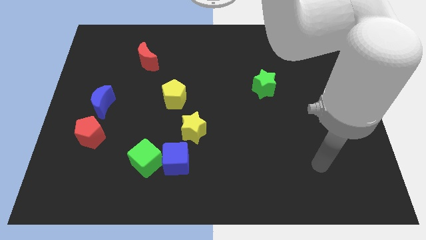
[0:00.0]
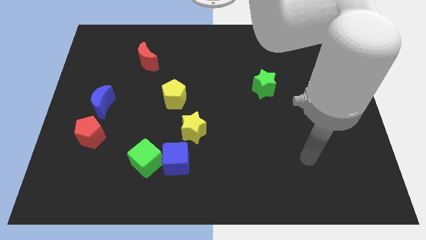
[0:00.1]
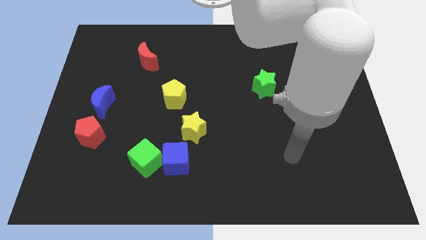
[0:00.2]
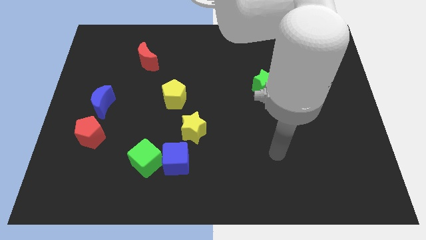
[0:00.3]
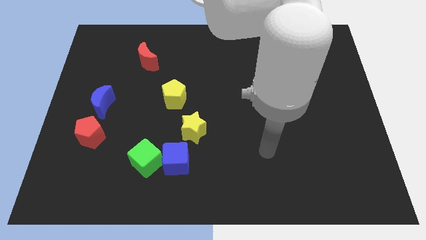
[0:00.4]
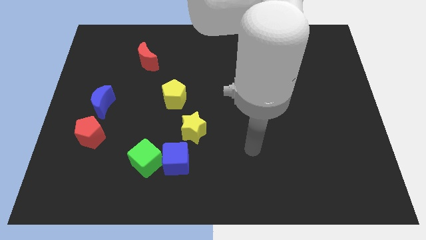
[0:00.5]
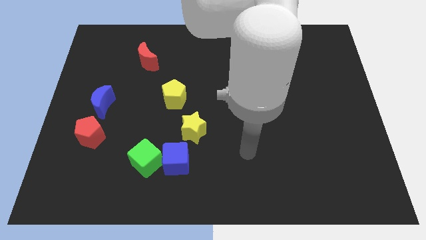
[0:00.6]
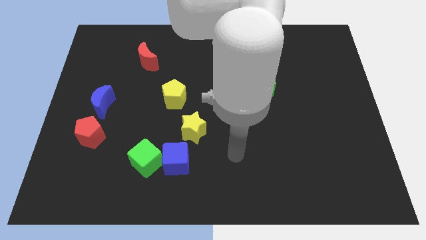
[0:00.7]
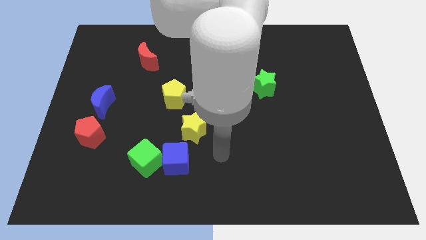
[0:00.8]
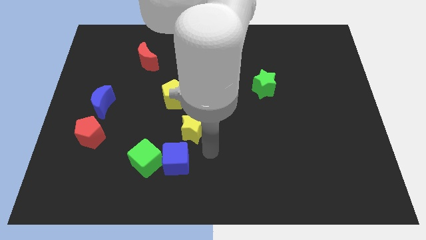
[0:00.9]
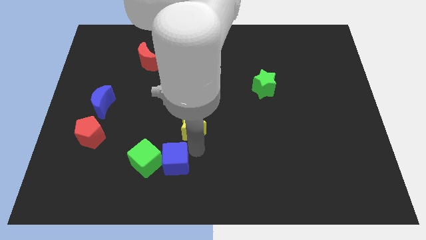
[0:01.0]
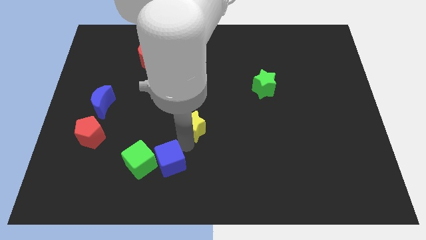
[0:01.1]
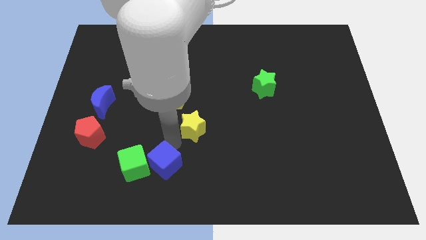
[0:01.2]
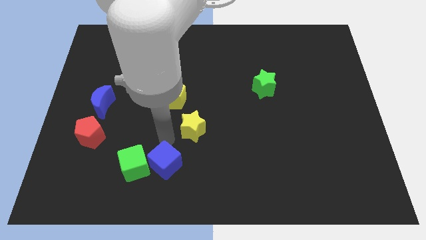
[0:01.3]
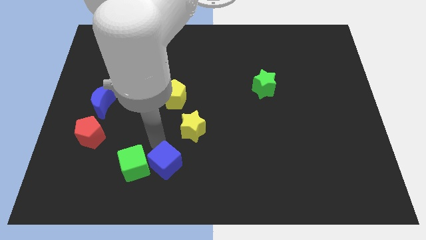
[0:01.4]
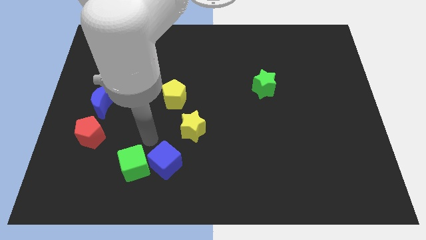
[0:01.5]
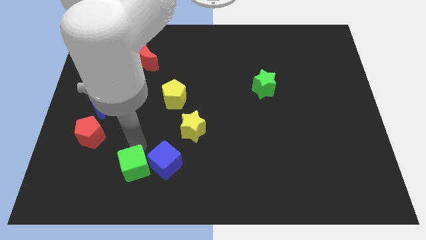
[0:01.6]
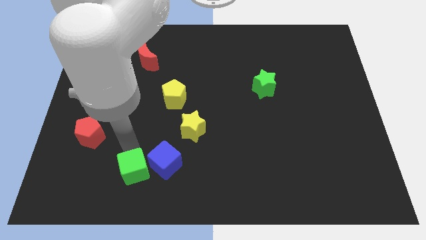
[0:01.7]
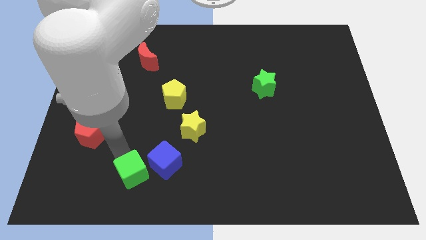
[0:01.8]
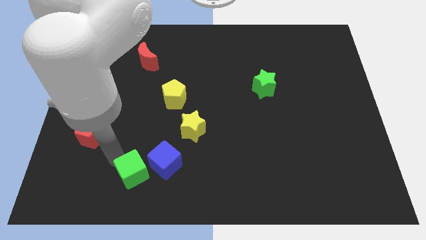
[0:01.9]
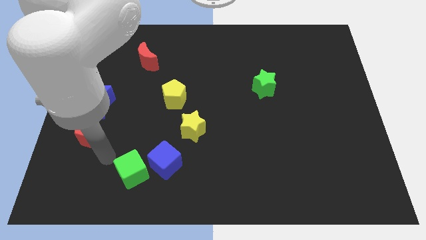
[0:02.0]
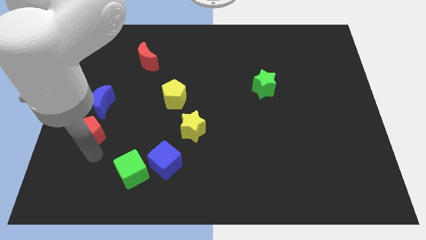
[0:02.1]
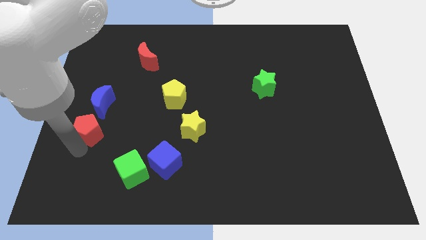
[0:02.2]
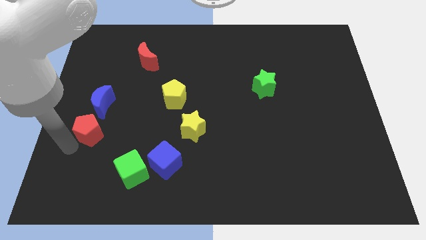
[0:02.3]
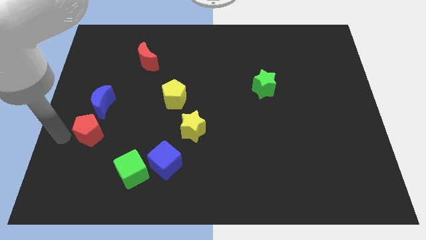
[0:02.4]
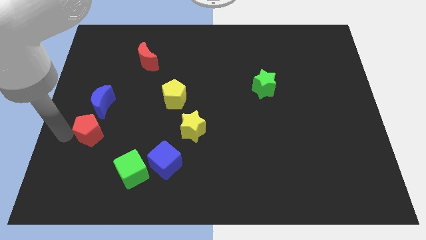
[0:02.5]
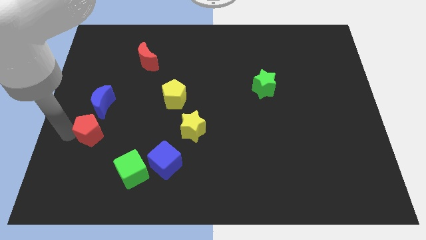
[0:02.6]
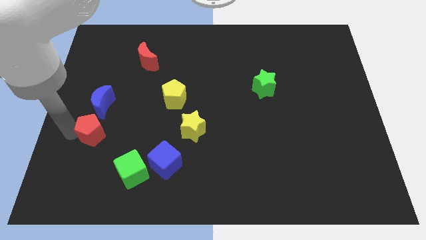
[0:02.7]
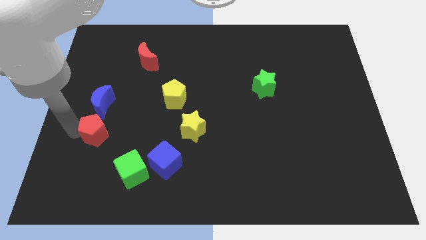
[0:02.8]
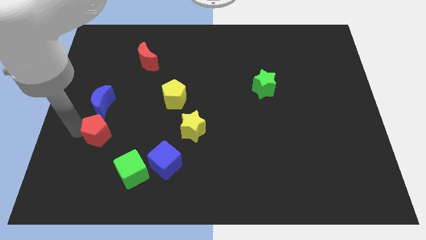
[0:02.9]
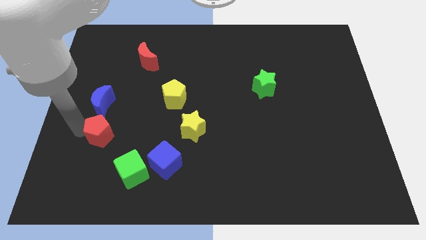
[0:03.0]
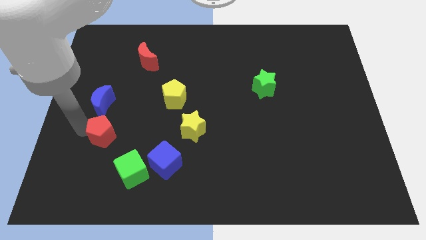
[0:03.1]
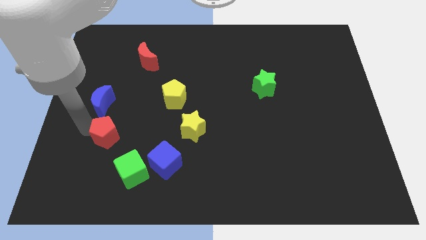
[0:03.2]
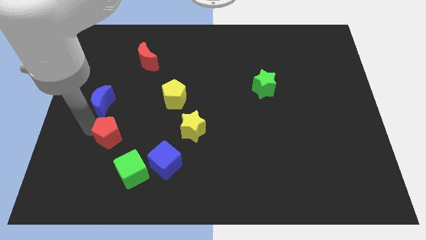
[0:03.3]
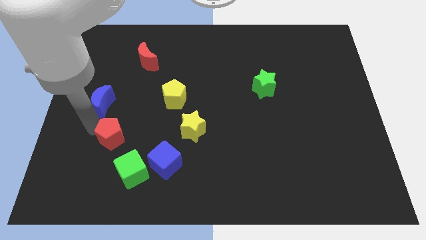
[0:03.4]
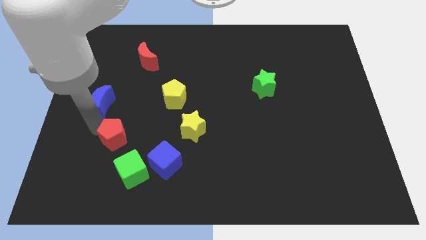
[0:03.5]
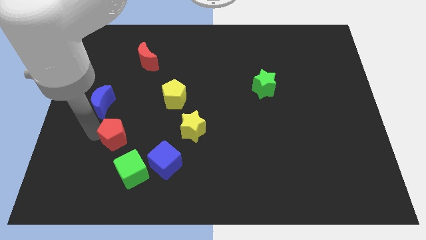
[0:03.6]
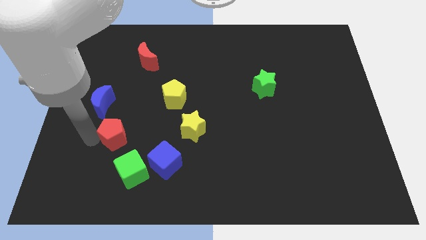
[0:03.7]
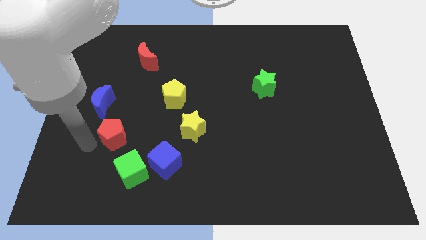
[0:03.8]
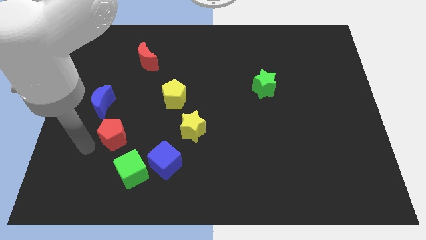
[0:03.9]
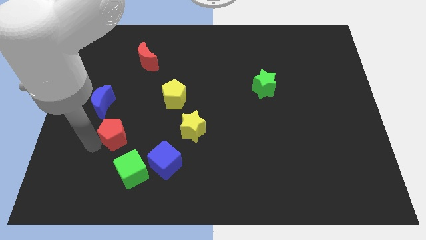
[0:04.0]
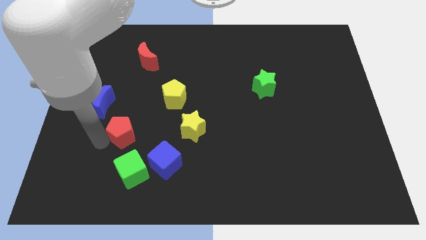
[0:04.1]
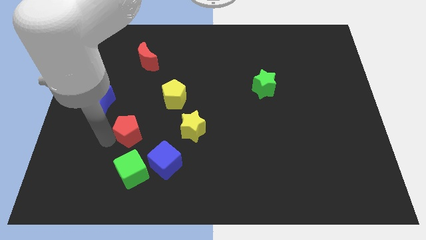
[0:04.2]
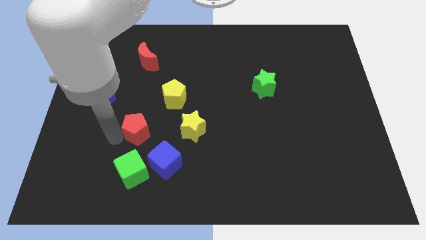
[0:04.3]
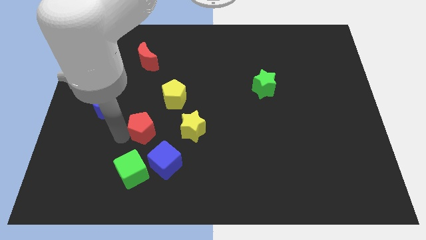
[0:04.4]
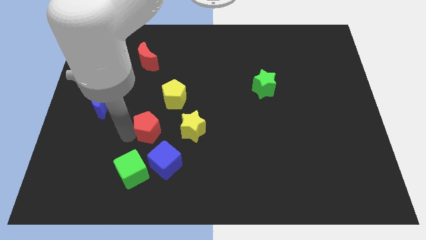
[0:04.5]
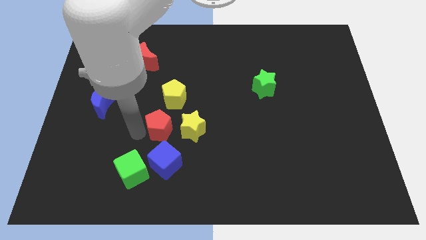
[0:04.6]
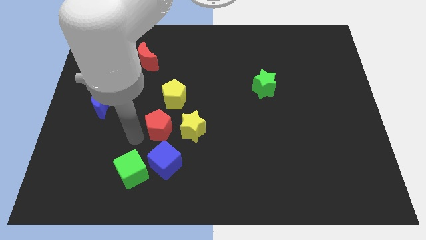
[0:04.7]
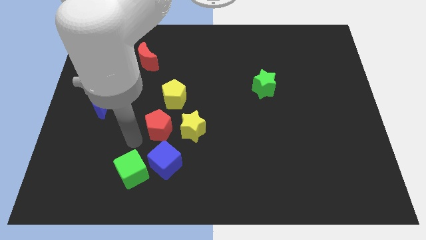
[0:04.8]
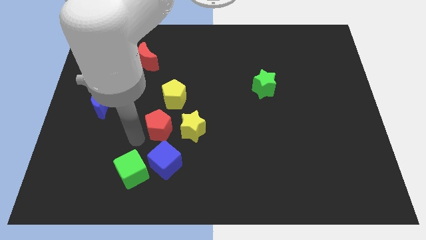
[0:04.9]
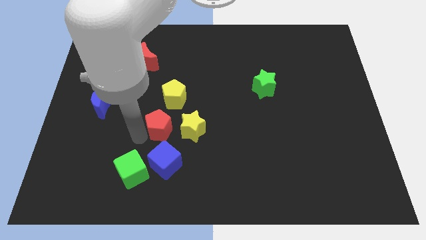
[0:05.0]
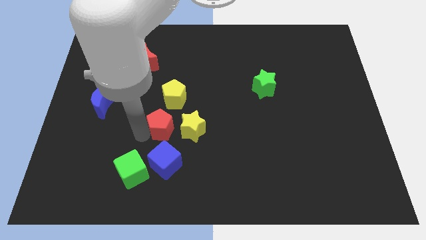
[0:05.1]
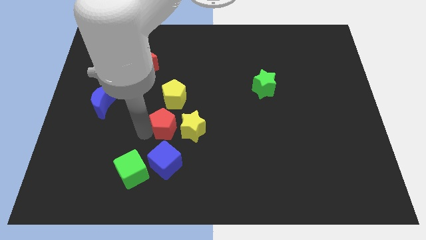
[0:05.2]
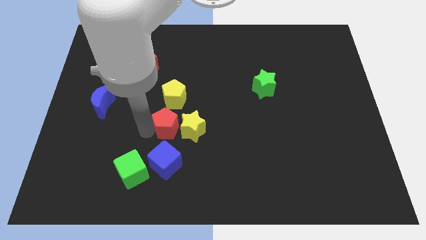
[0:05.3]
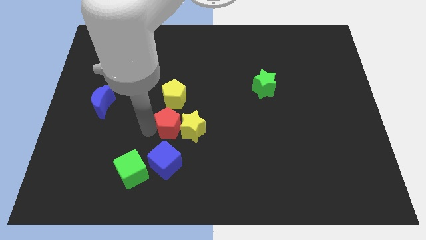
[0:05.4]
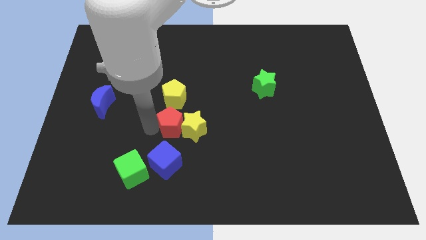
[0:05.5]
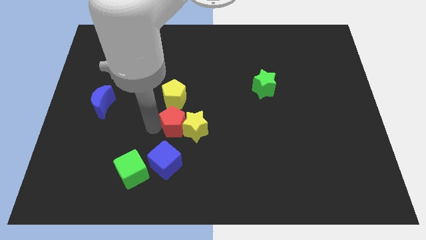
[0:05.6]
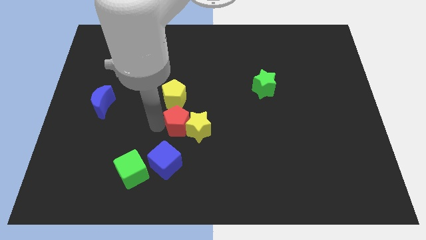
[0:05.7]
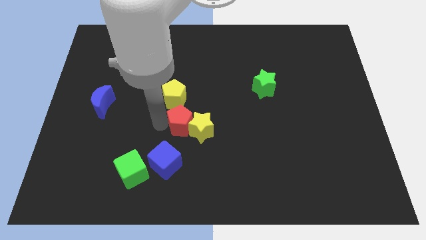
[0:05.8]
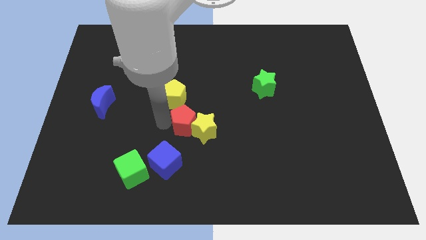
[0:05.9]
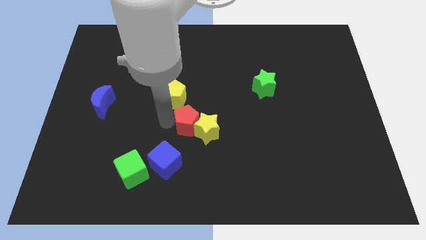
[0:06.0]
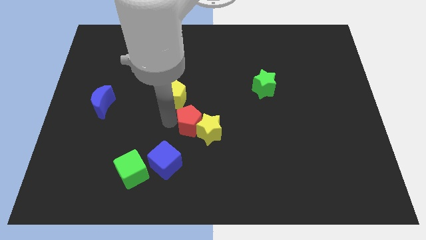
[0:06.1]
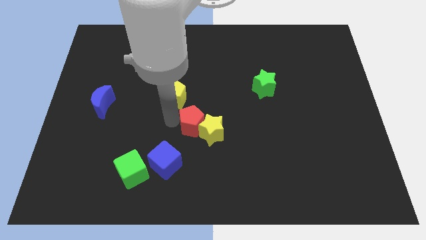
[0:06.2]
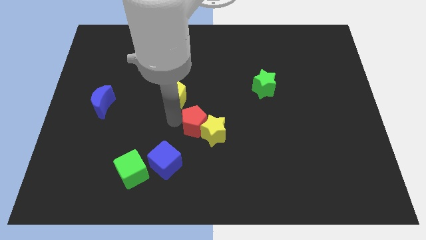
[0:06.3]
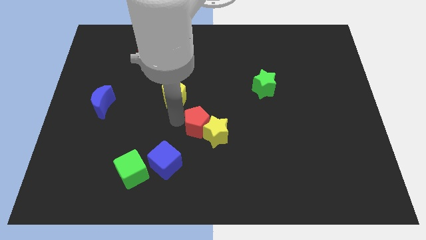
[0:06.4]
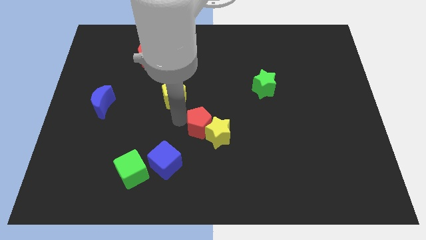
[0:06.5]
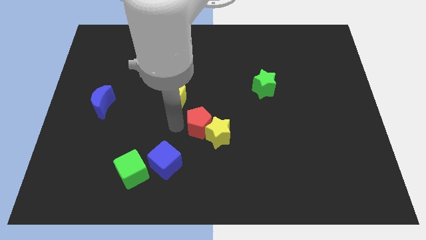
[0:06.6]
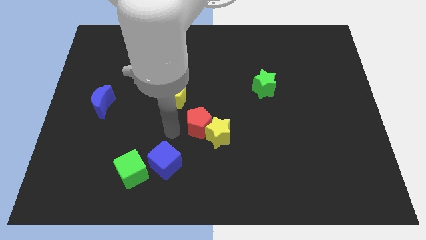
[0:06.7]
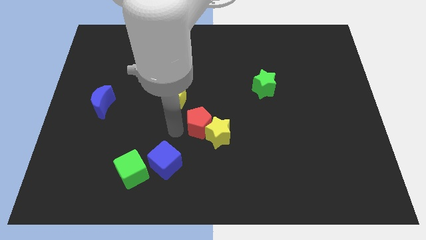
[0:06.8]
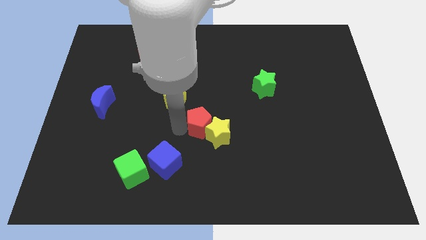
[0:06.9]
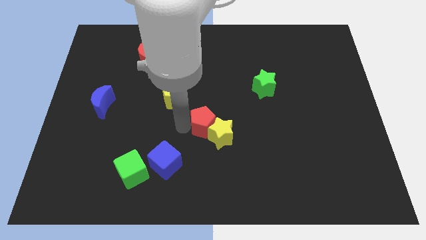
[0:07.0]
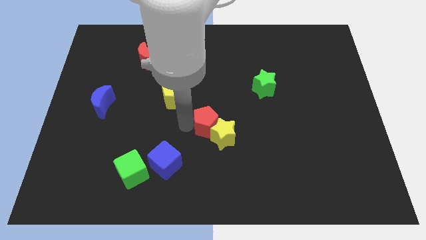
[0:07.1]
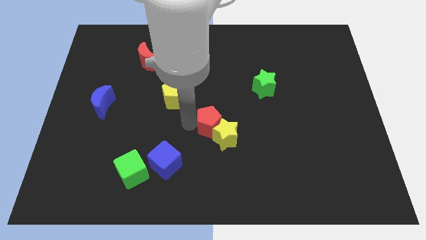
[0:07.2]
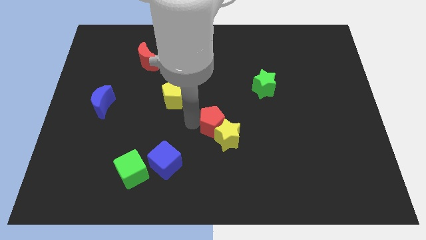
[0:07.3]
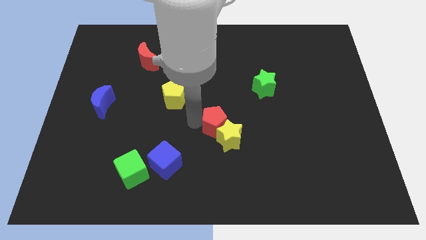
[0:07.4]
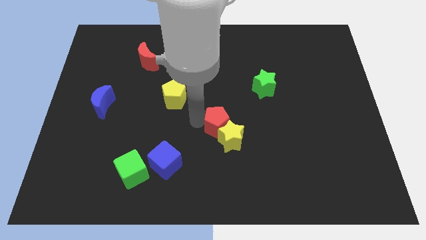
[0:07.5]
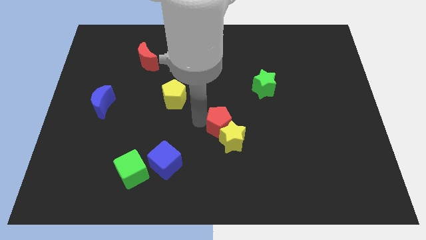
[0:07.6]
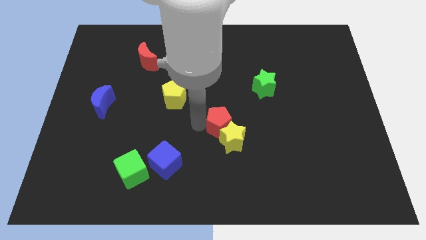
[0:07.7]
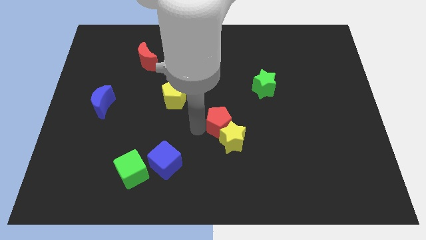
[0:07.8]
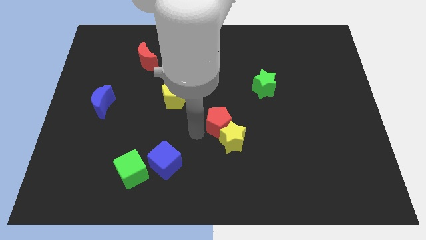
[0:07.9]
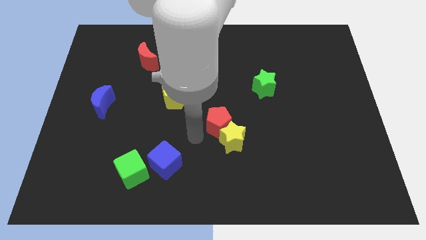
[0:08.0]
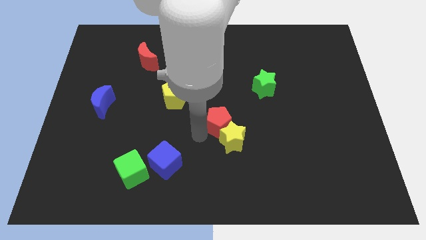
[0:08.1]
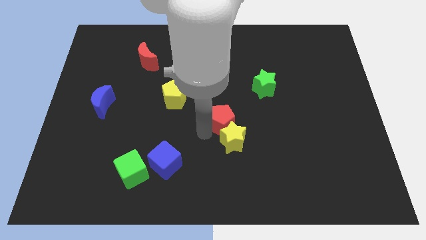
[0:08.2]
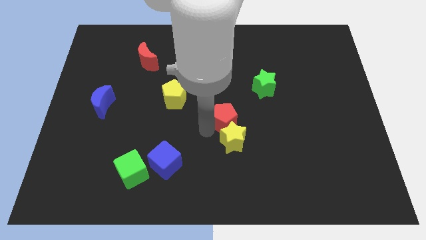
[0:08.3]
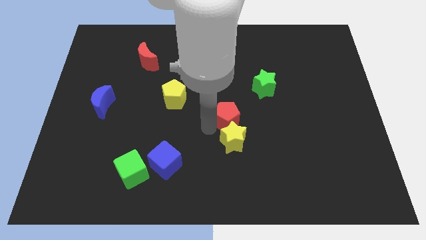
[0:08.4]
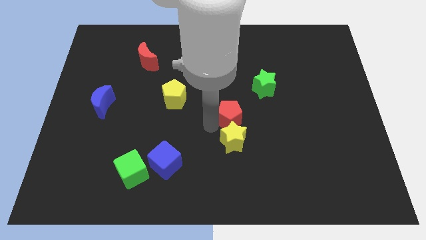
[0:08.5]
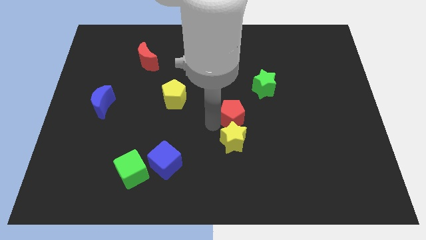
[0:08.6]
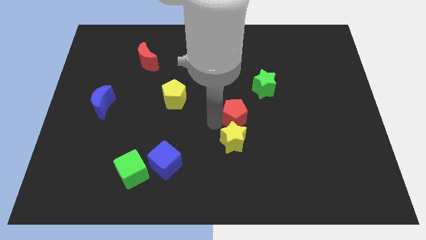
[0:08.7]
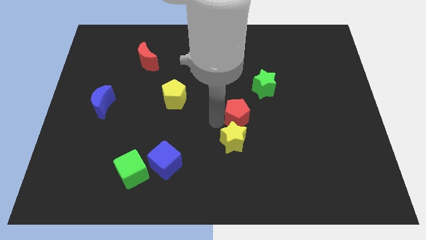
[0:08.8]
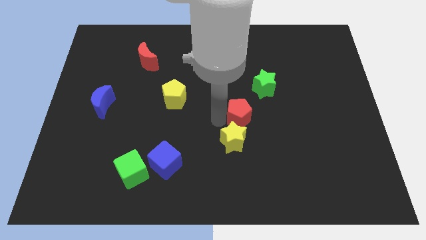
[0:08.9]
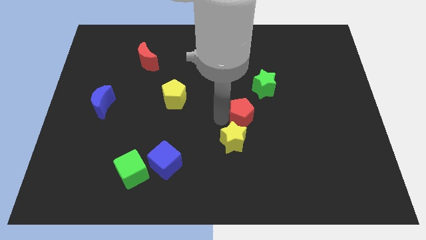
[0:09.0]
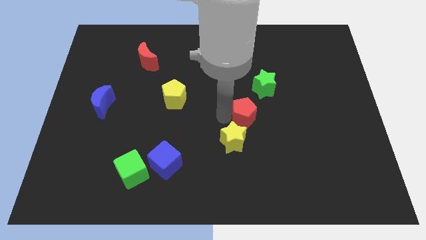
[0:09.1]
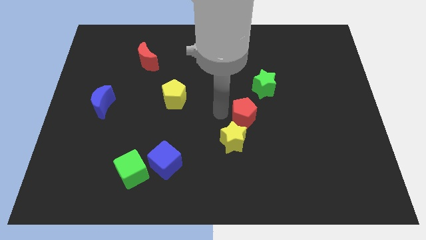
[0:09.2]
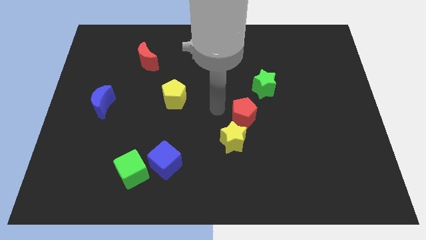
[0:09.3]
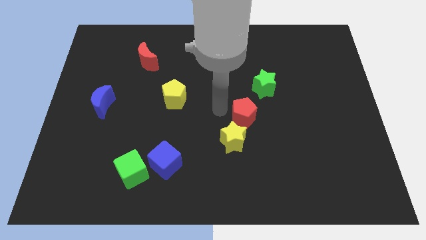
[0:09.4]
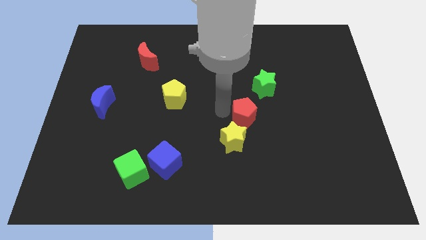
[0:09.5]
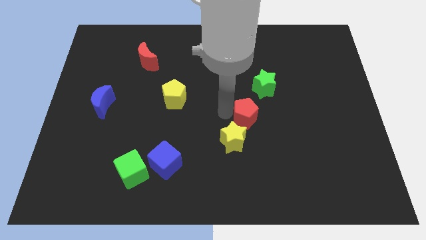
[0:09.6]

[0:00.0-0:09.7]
move the red pentagon below the green star
